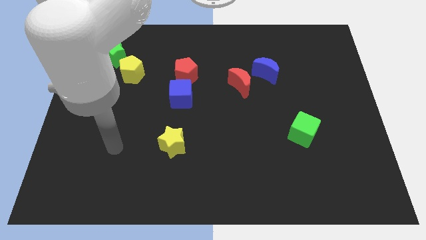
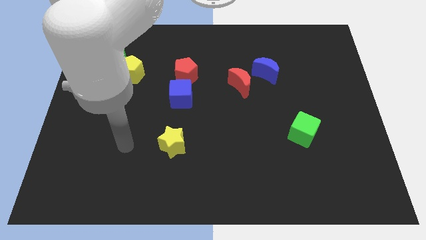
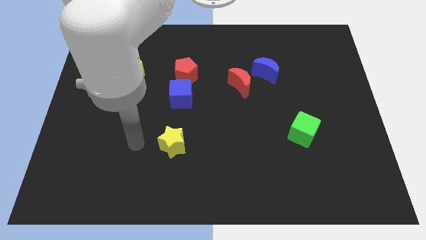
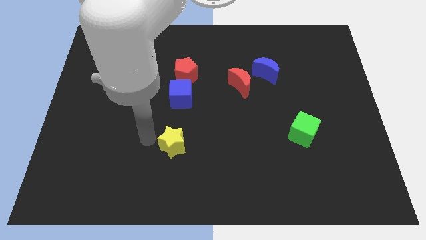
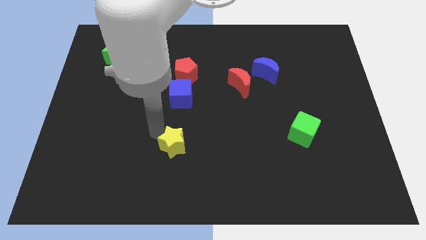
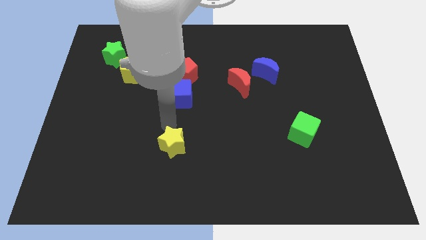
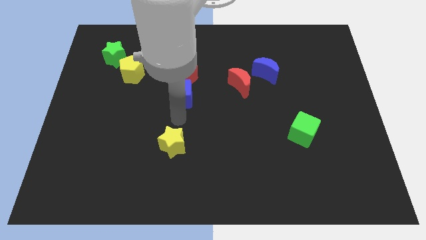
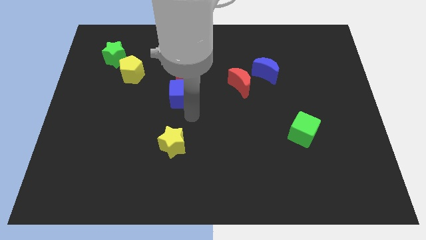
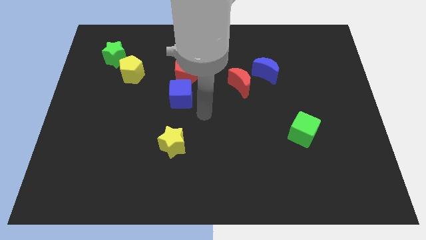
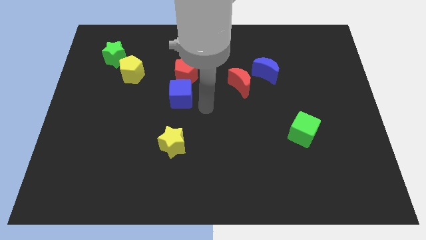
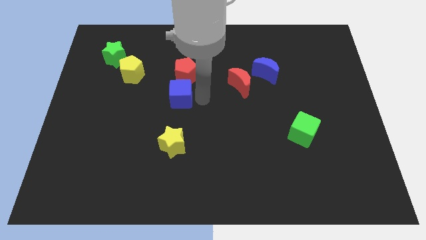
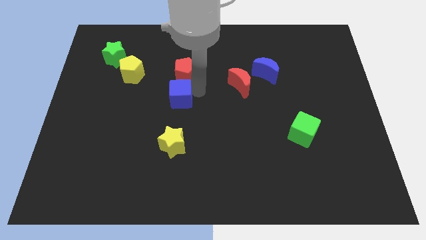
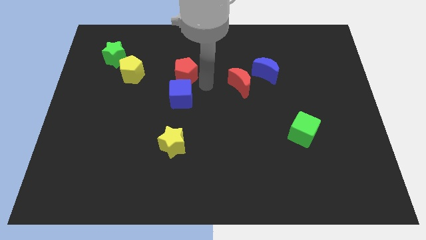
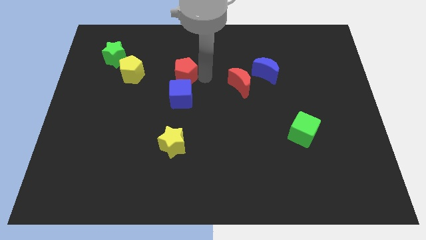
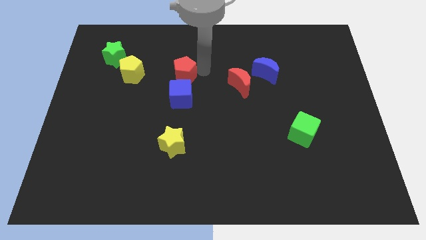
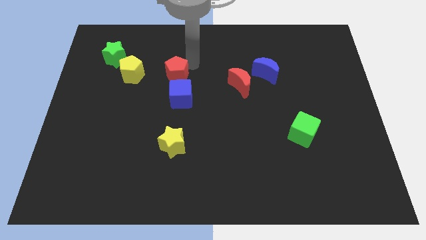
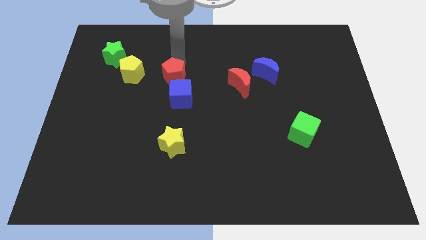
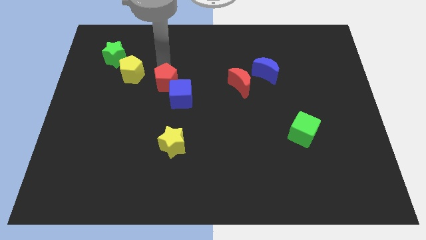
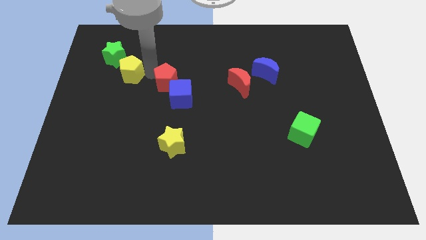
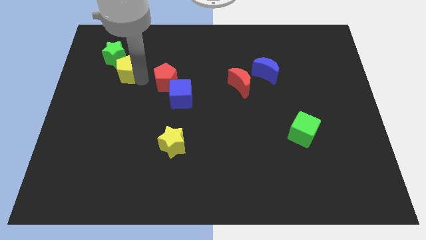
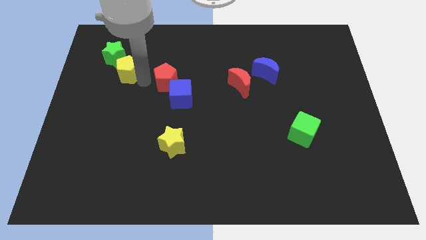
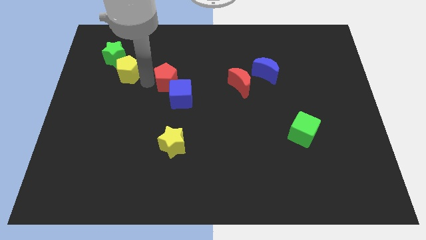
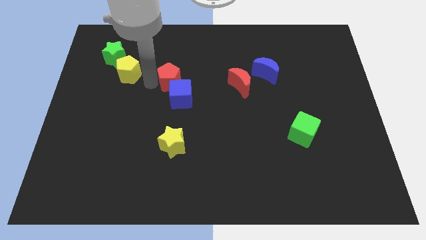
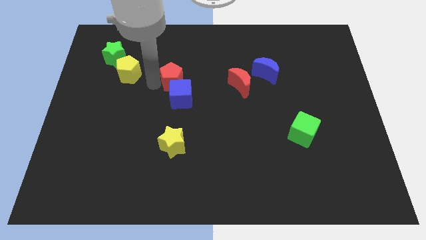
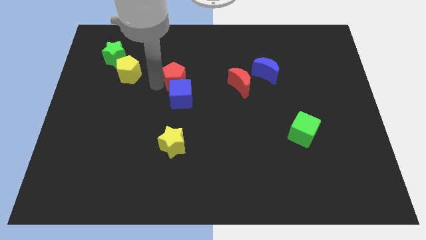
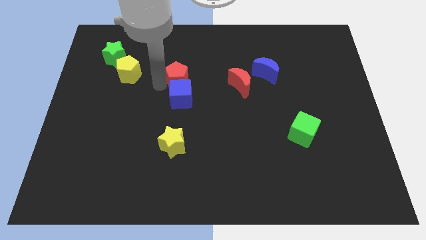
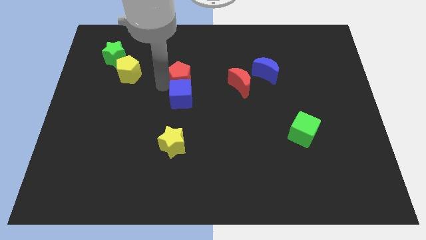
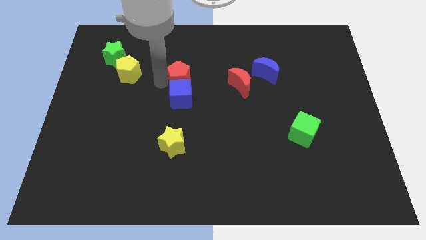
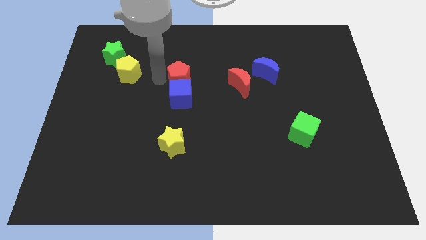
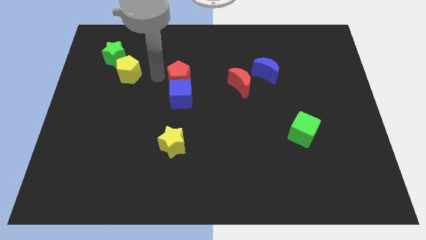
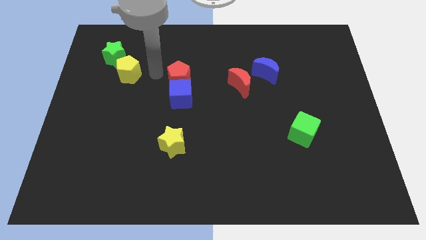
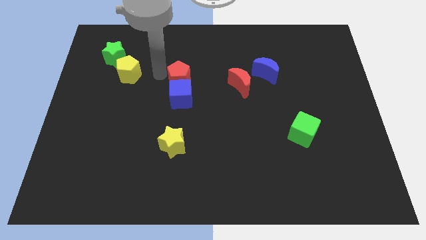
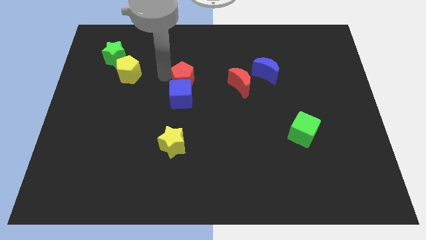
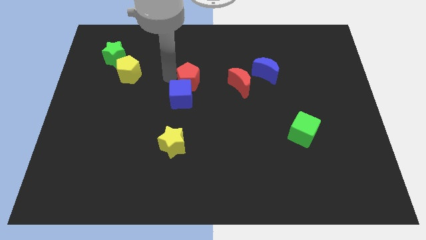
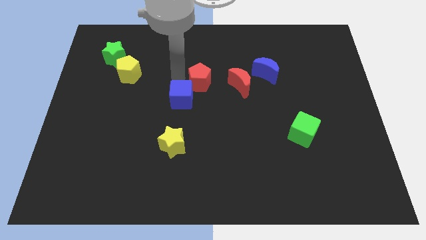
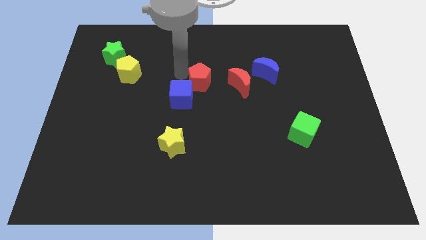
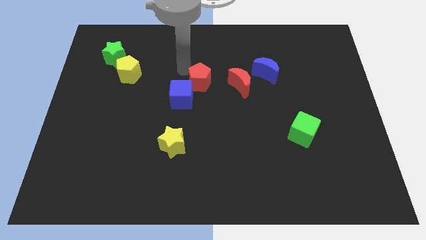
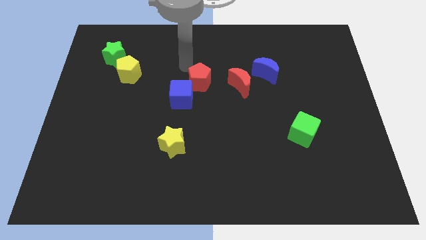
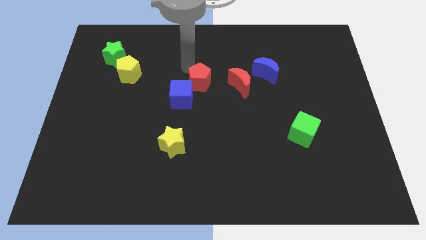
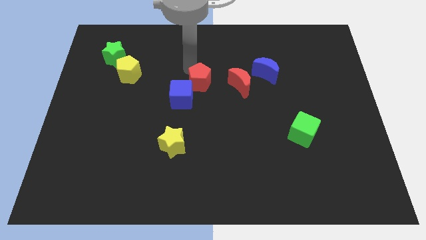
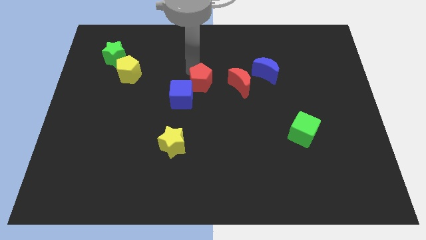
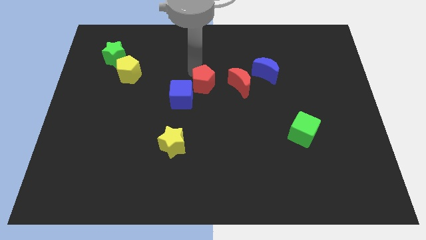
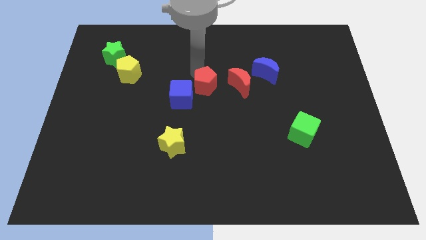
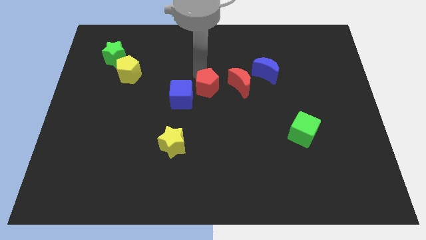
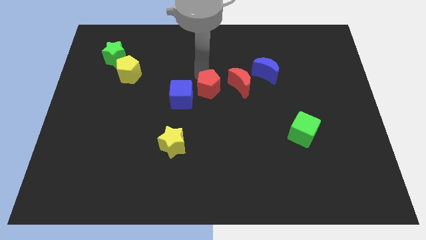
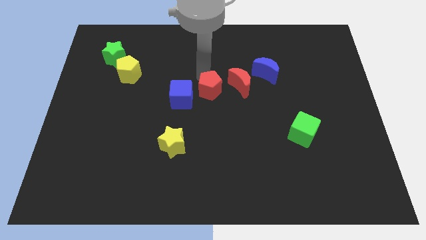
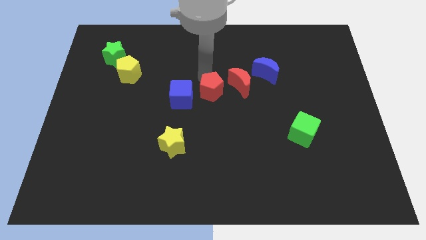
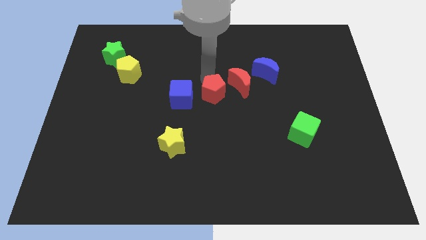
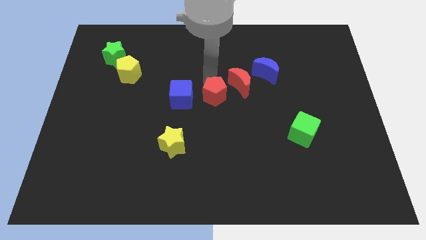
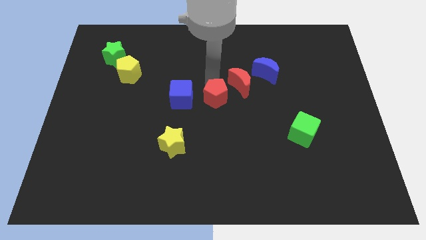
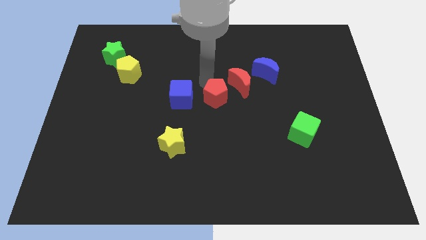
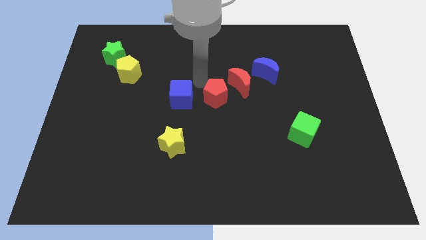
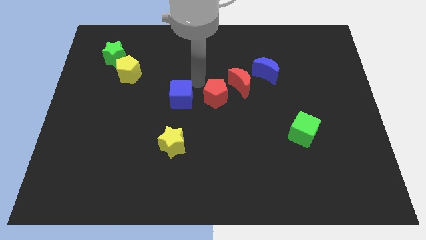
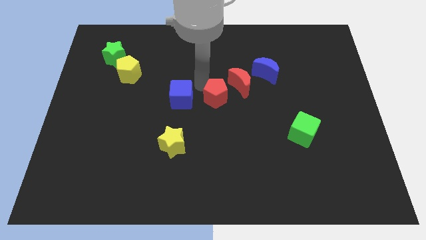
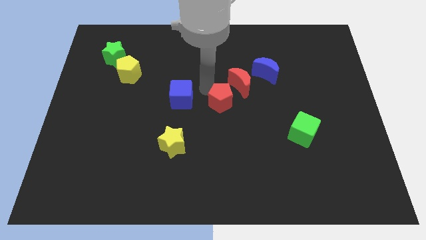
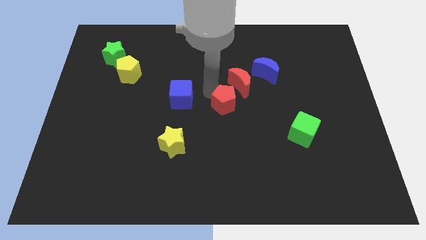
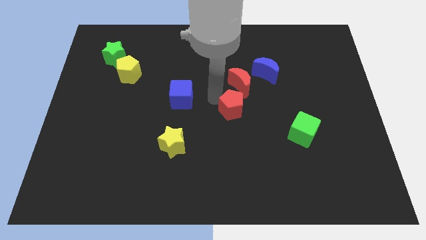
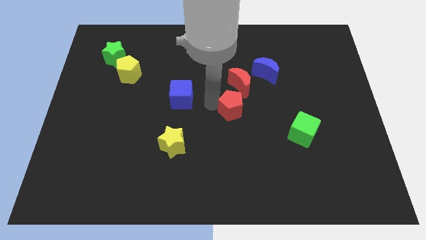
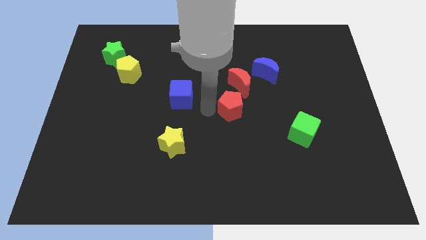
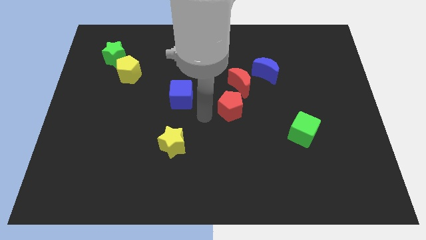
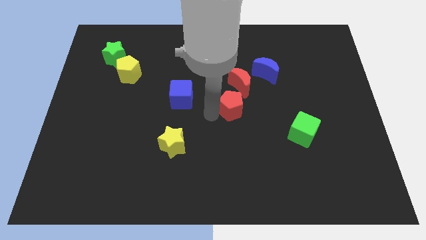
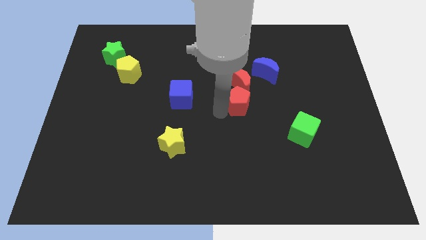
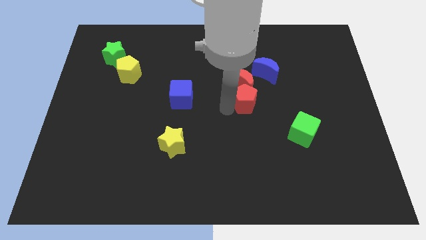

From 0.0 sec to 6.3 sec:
push the red pentagon to the bottom right of the red moon

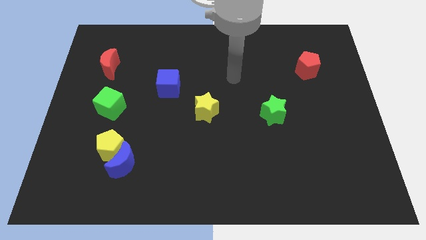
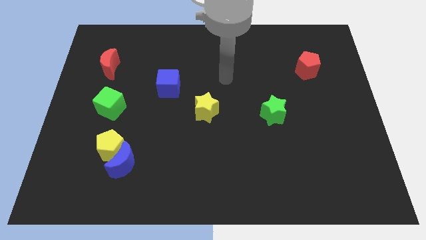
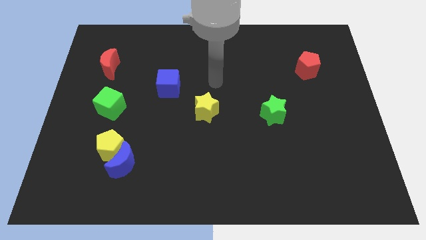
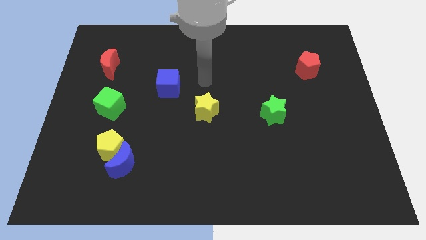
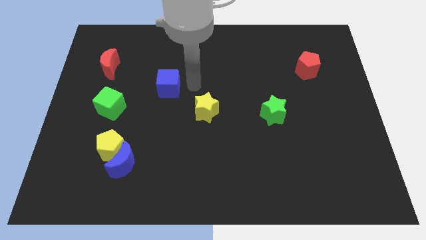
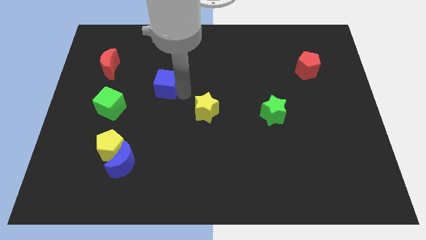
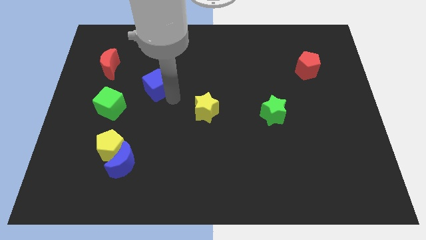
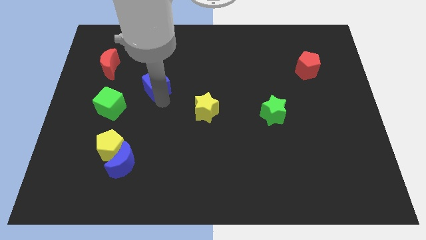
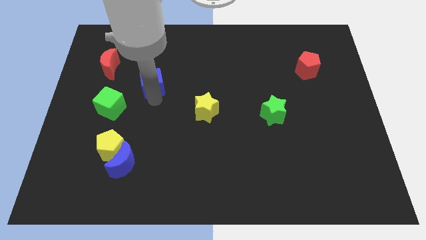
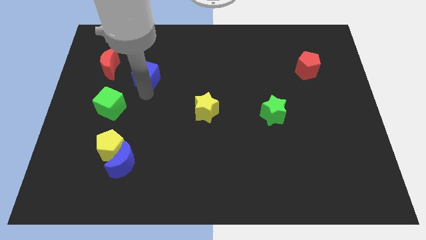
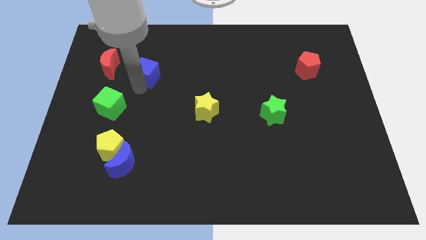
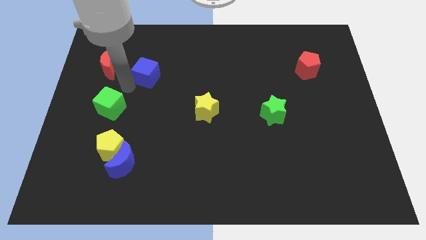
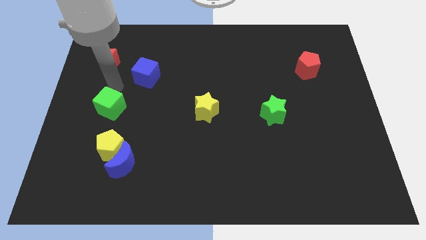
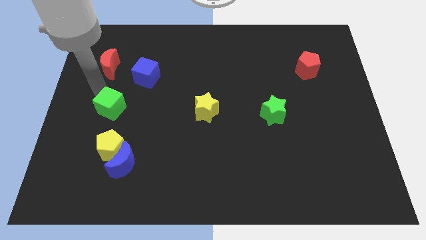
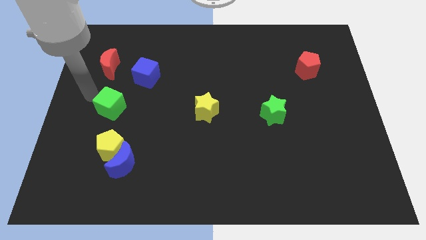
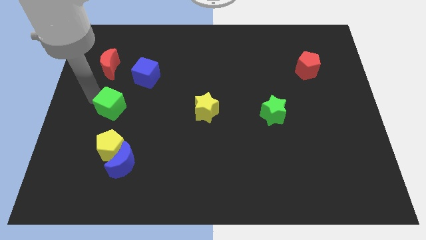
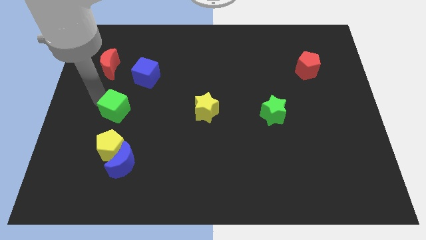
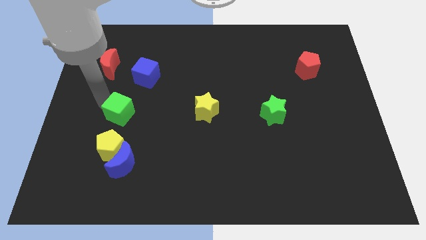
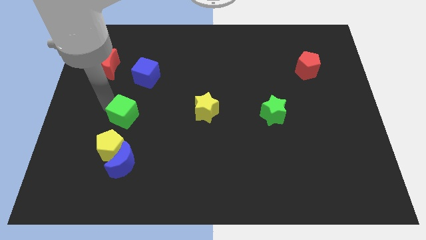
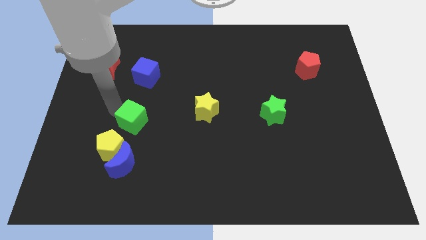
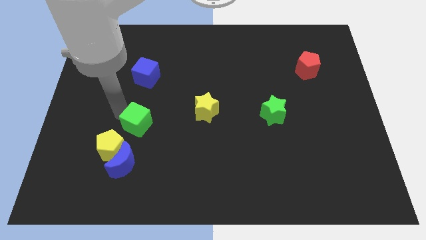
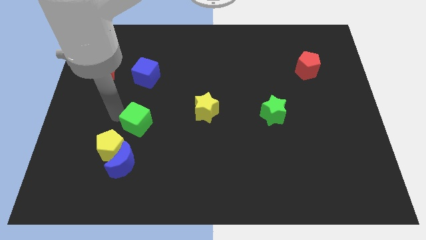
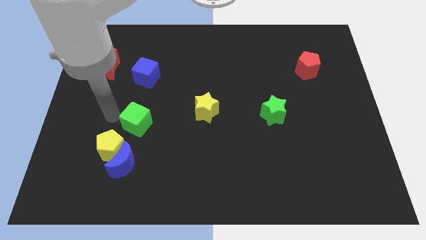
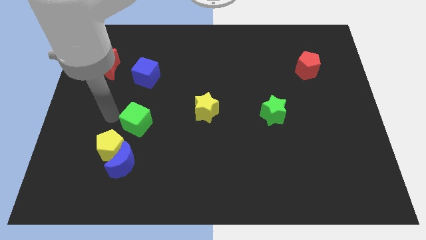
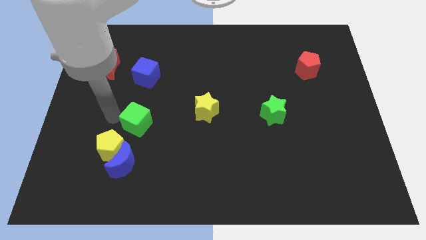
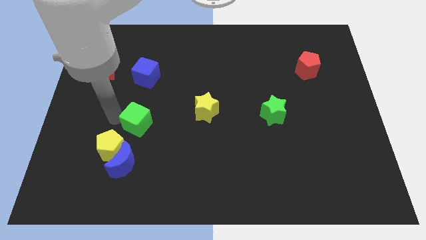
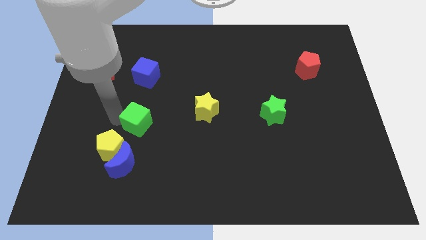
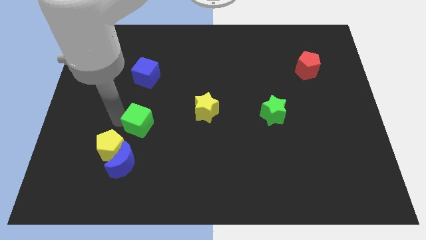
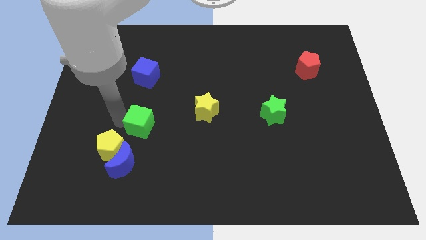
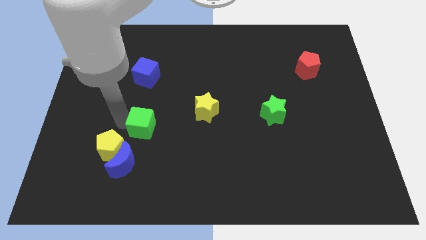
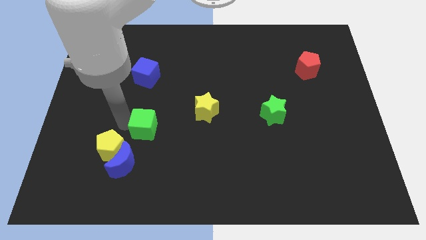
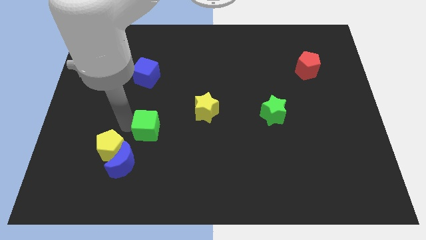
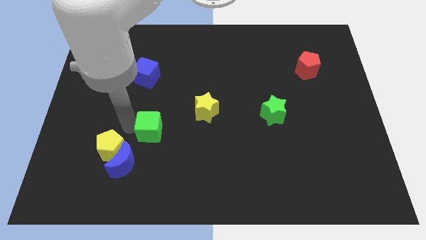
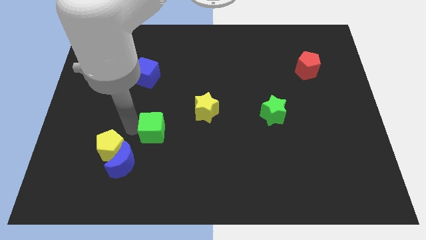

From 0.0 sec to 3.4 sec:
slide the green cube to the right of the yellow pentagon
